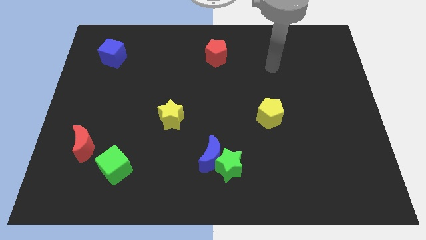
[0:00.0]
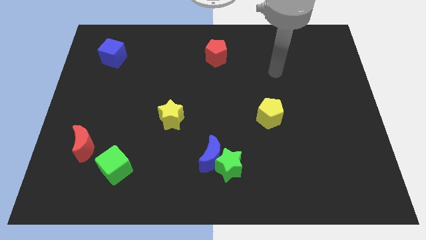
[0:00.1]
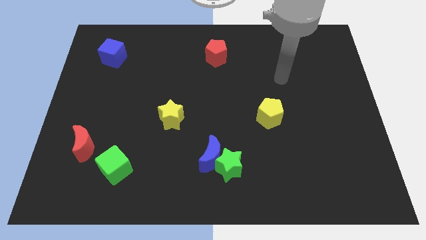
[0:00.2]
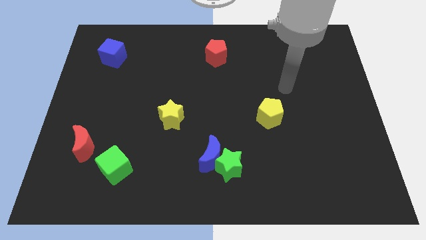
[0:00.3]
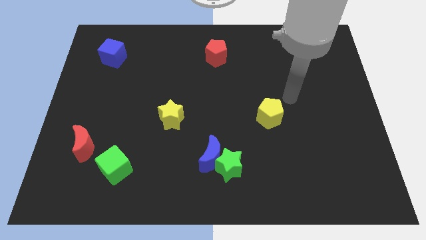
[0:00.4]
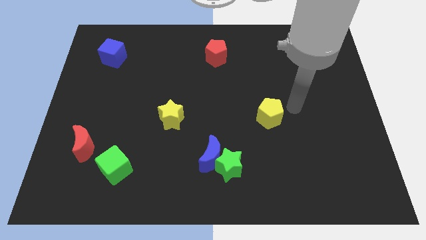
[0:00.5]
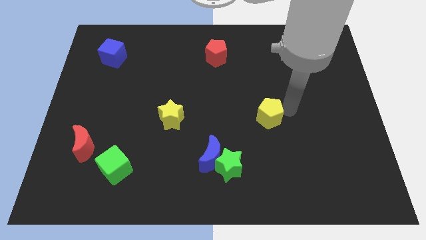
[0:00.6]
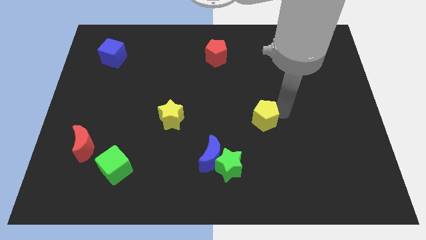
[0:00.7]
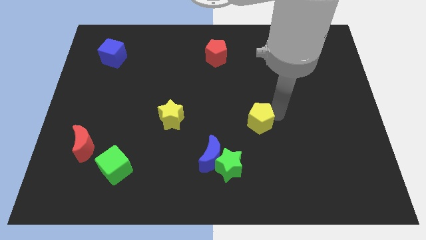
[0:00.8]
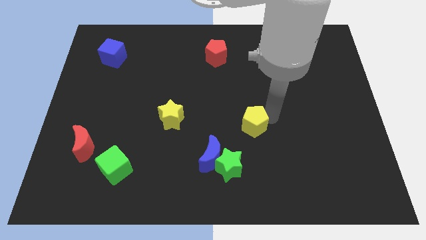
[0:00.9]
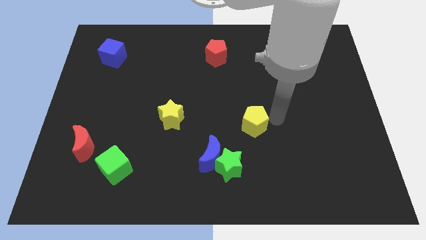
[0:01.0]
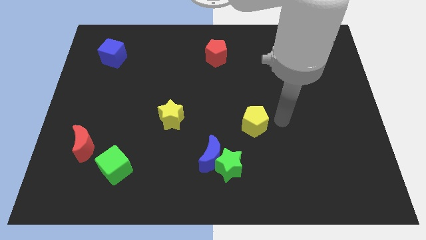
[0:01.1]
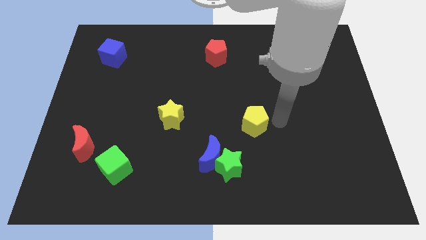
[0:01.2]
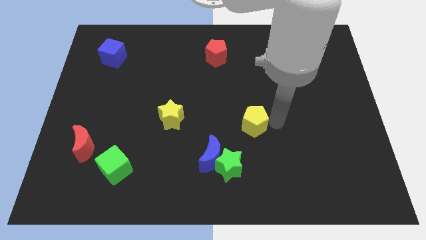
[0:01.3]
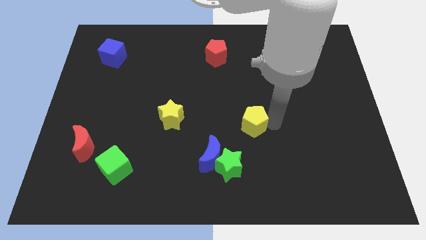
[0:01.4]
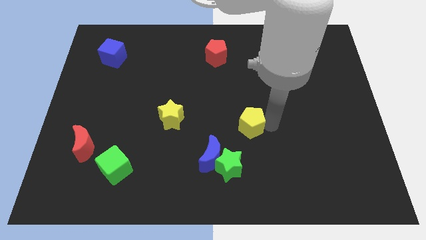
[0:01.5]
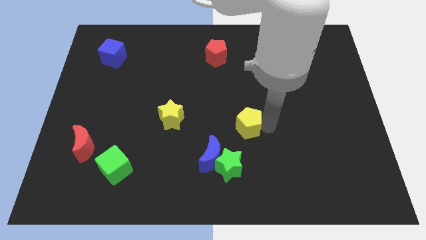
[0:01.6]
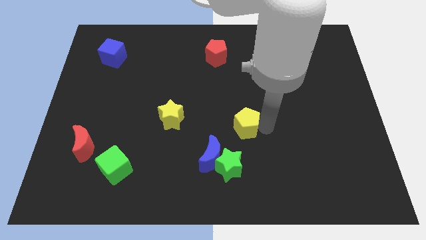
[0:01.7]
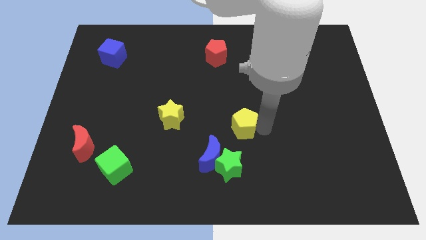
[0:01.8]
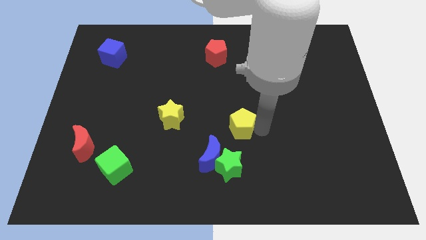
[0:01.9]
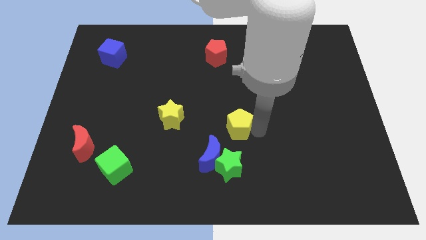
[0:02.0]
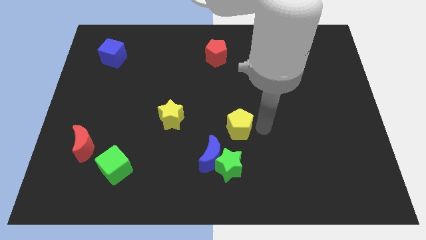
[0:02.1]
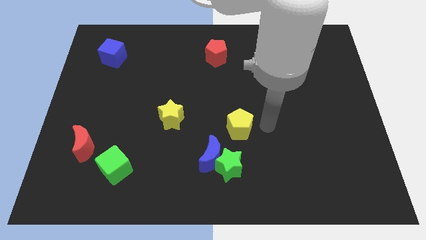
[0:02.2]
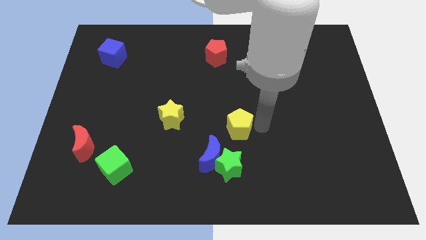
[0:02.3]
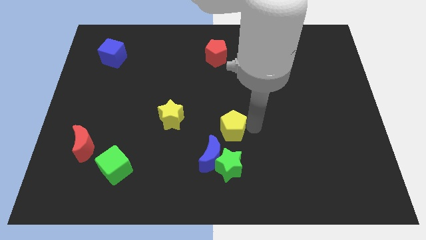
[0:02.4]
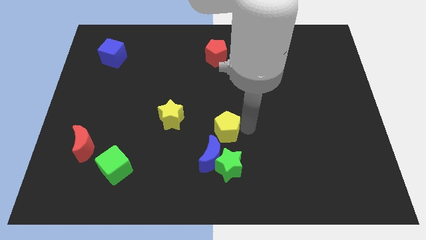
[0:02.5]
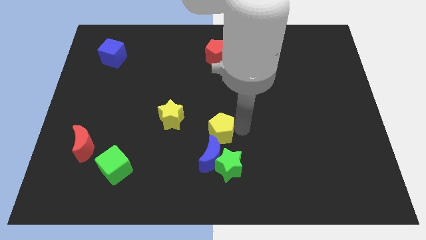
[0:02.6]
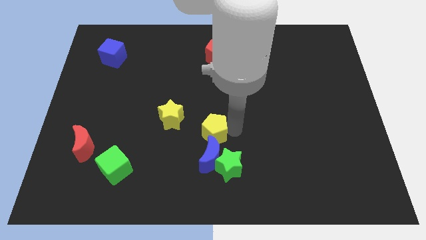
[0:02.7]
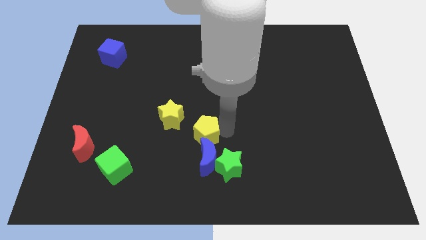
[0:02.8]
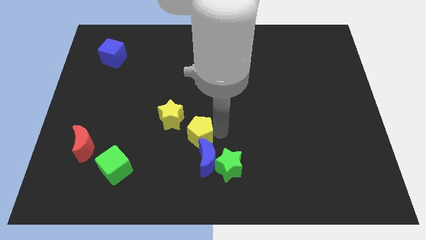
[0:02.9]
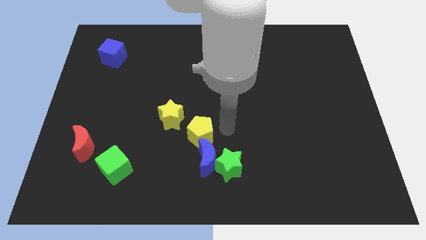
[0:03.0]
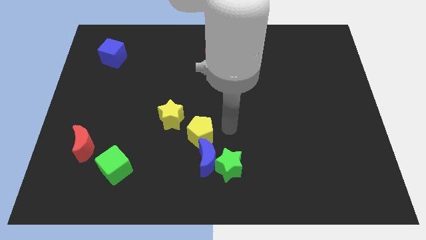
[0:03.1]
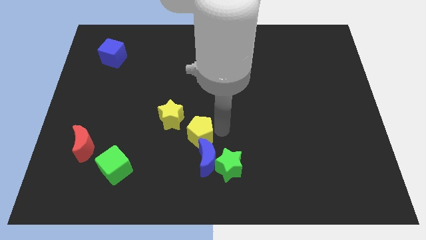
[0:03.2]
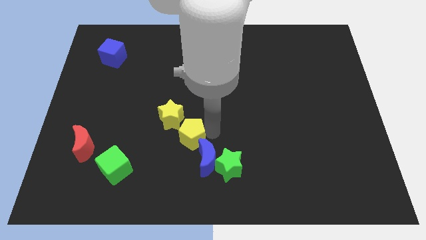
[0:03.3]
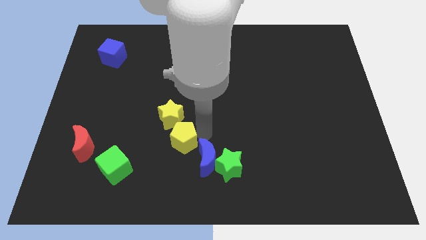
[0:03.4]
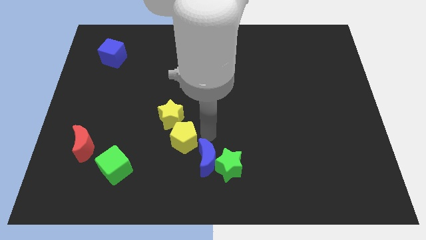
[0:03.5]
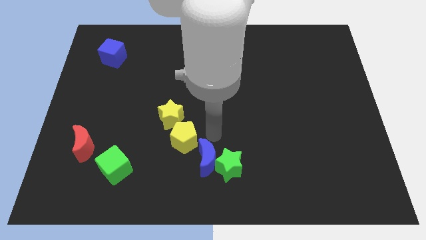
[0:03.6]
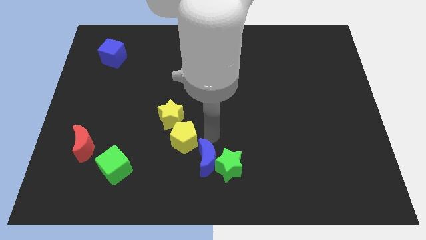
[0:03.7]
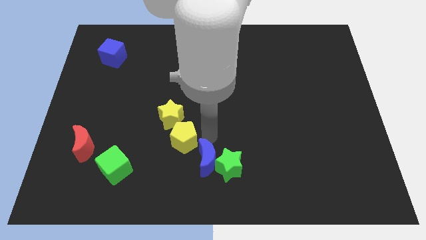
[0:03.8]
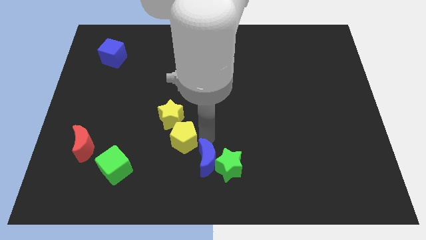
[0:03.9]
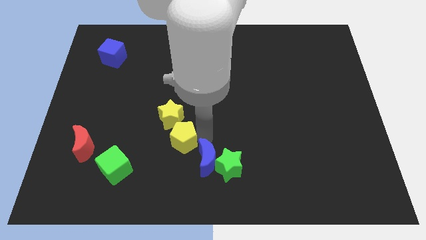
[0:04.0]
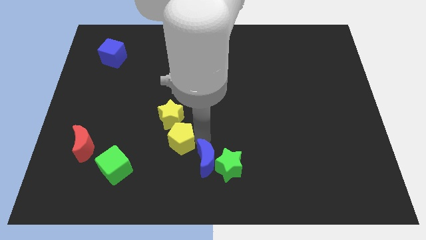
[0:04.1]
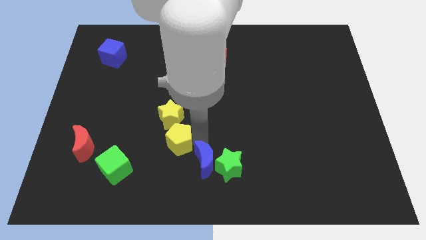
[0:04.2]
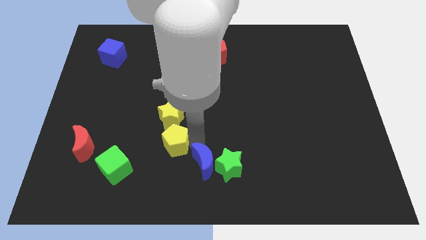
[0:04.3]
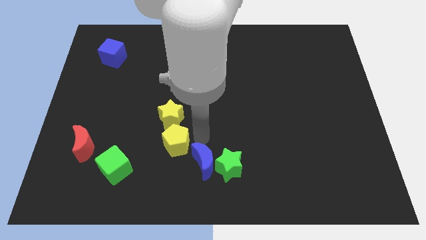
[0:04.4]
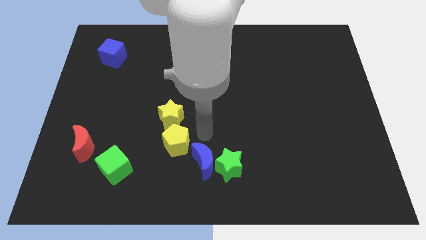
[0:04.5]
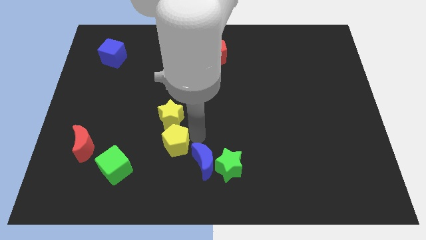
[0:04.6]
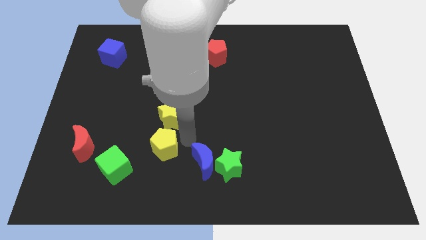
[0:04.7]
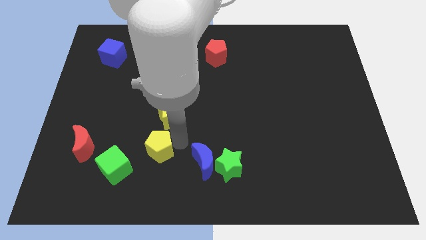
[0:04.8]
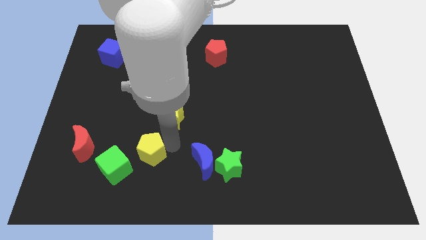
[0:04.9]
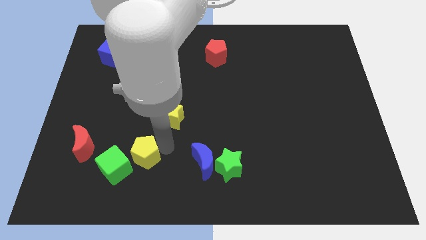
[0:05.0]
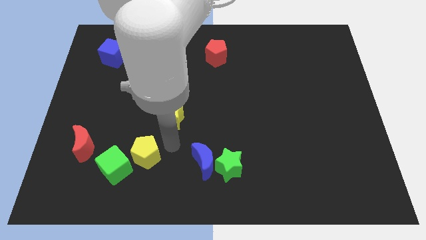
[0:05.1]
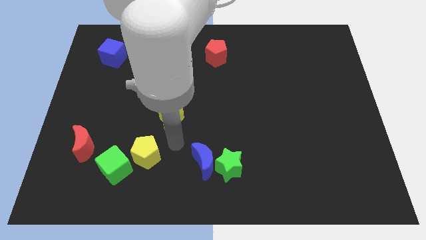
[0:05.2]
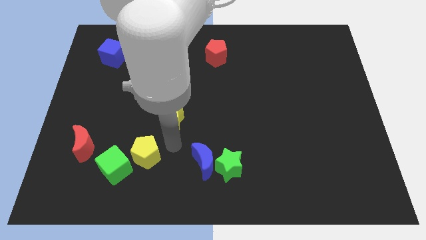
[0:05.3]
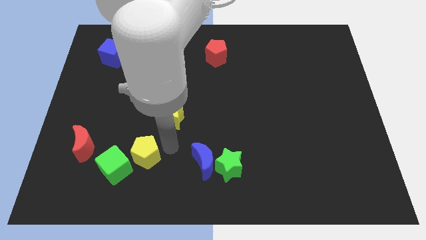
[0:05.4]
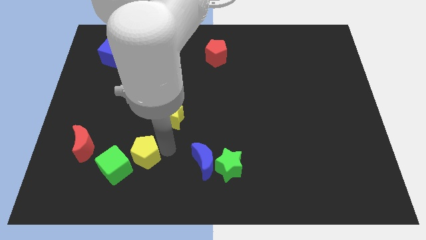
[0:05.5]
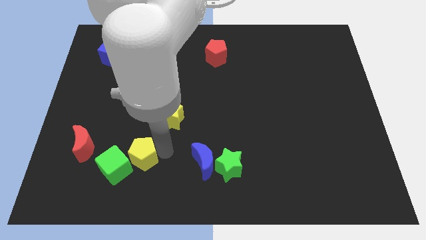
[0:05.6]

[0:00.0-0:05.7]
move the yellow pentagon close to the green cube

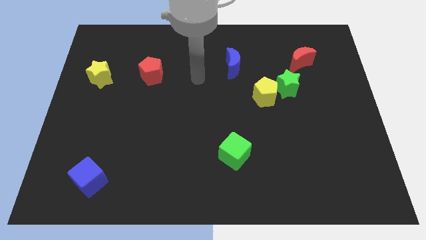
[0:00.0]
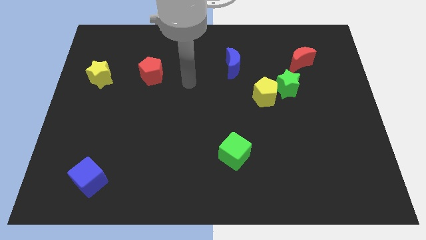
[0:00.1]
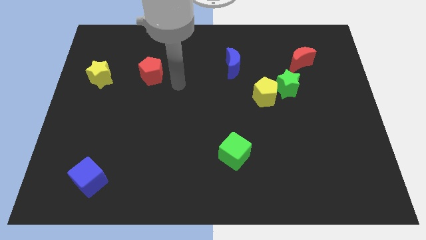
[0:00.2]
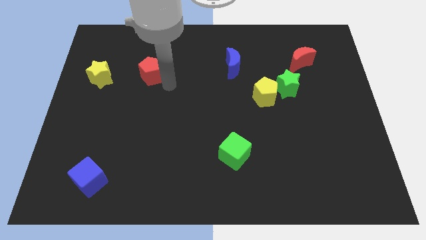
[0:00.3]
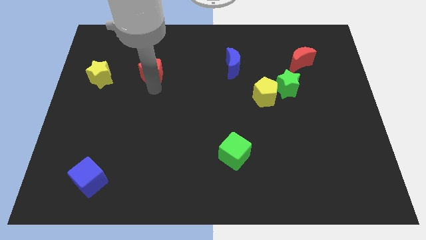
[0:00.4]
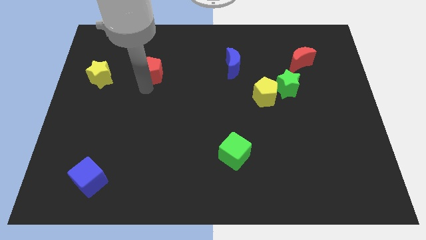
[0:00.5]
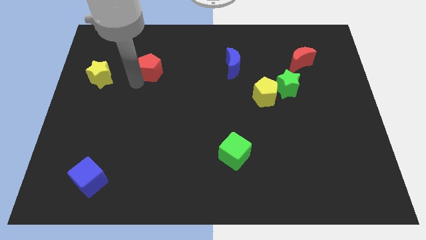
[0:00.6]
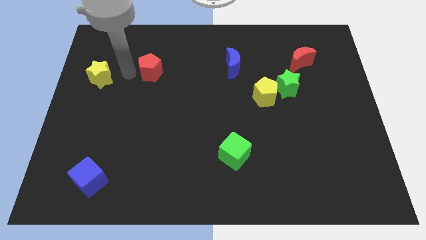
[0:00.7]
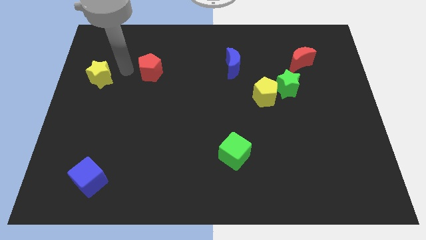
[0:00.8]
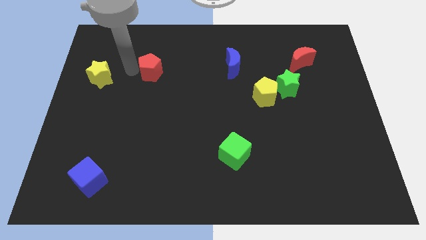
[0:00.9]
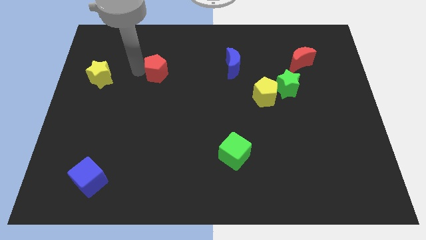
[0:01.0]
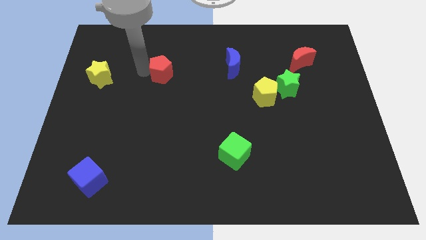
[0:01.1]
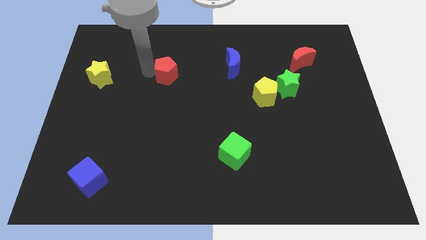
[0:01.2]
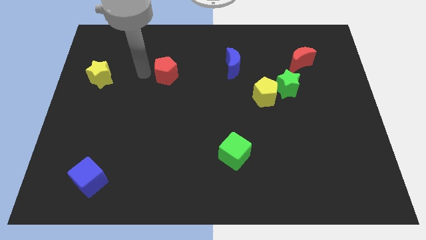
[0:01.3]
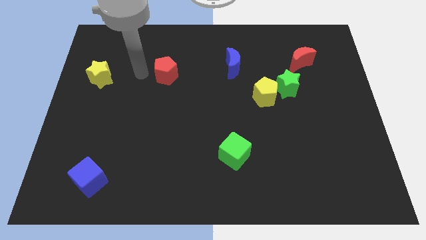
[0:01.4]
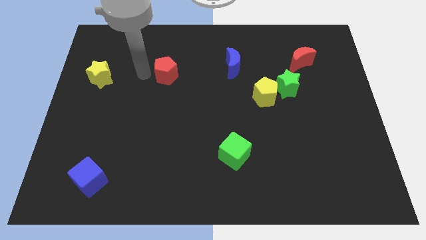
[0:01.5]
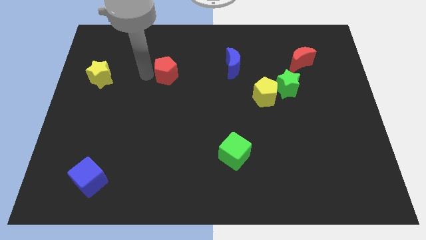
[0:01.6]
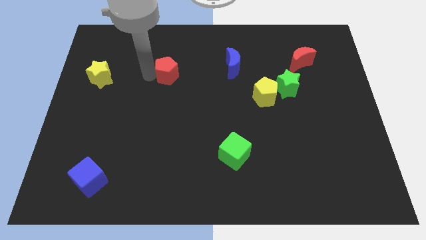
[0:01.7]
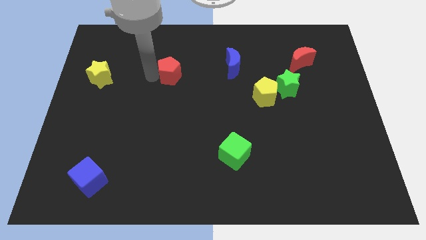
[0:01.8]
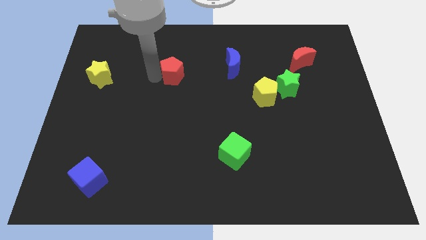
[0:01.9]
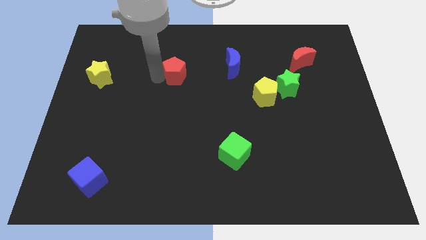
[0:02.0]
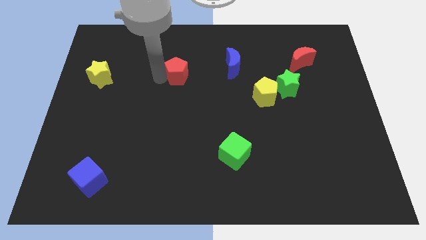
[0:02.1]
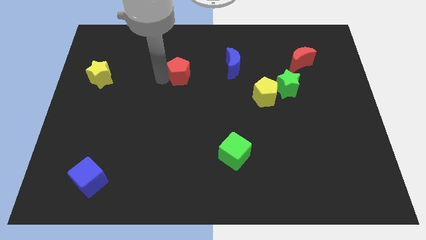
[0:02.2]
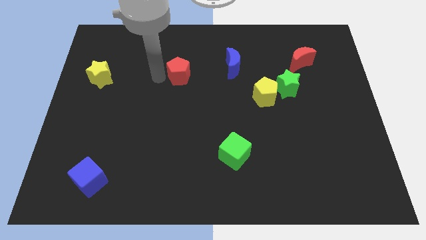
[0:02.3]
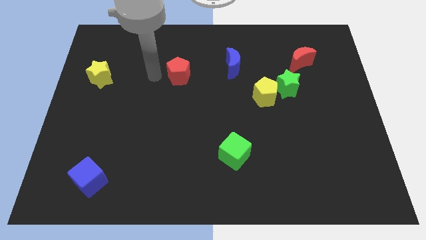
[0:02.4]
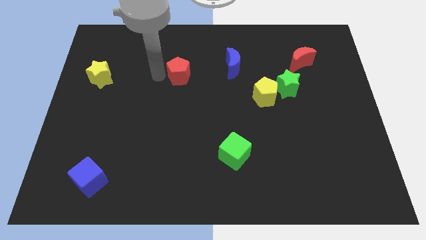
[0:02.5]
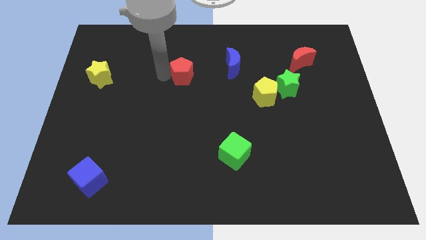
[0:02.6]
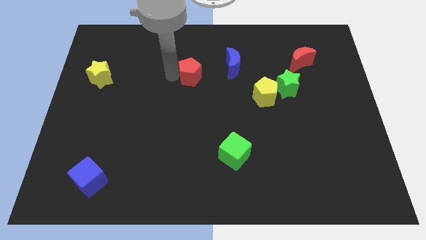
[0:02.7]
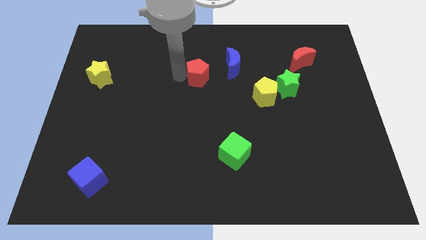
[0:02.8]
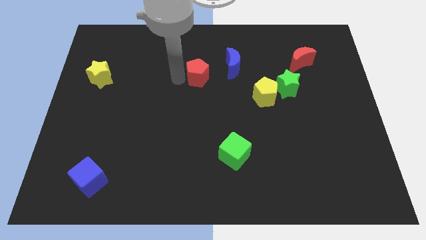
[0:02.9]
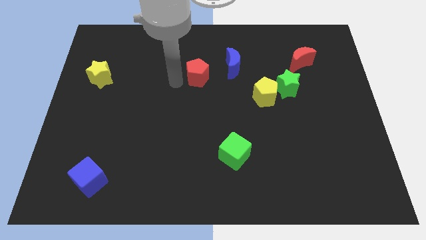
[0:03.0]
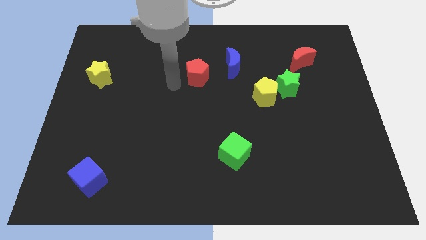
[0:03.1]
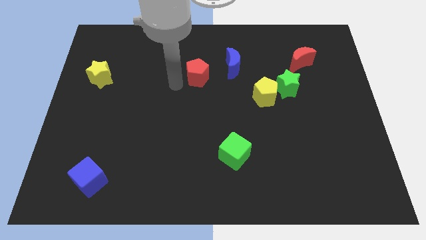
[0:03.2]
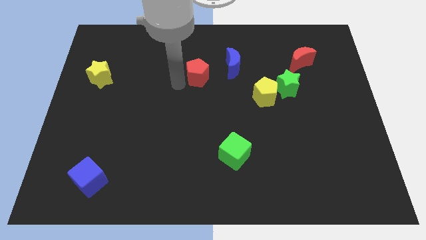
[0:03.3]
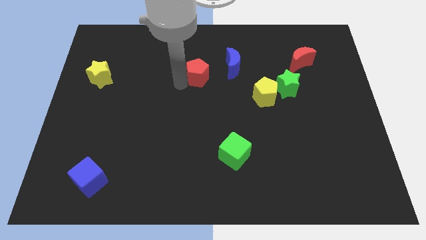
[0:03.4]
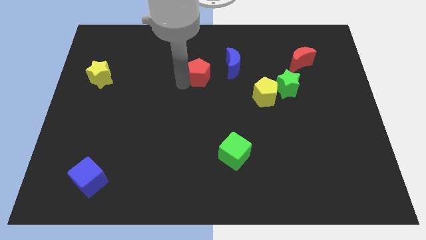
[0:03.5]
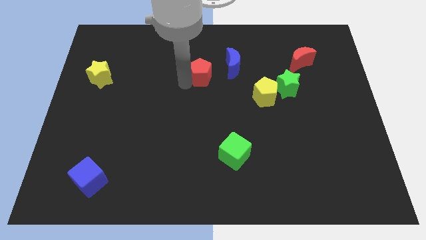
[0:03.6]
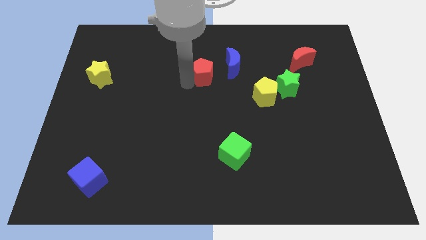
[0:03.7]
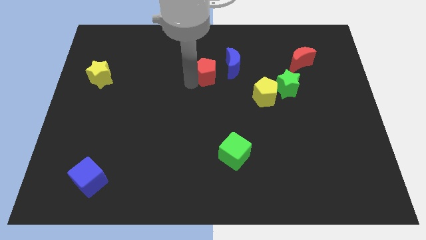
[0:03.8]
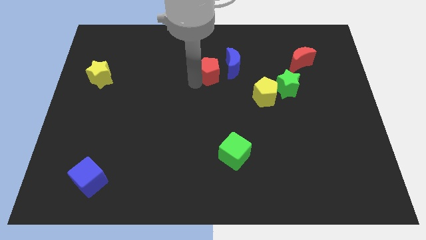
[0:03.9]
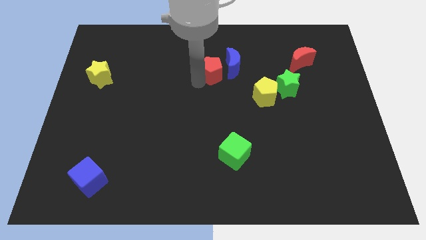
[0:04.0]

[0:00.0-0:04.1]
slide the red pentagon next to the blue moon
